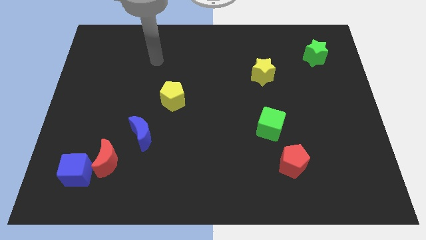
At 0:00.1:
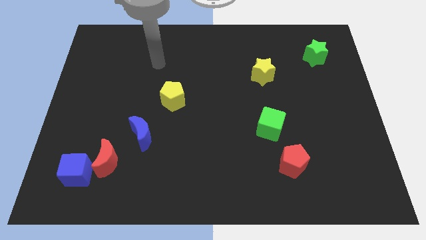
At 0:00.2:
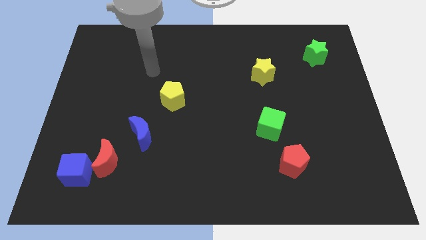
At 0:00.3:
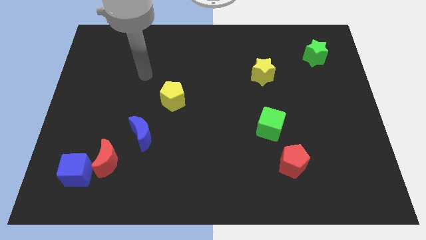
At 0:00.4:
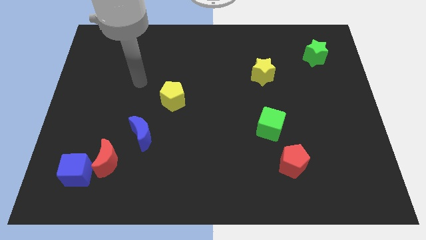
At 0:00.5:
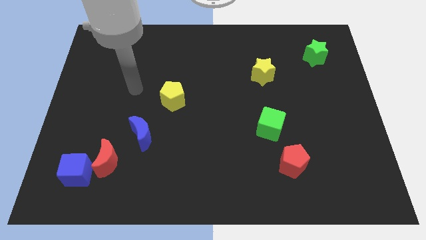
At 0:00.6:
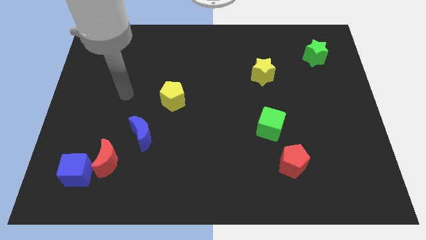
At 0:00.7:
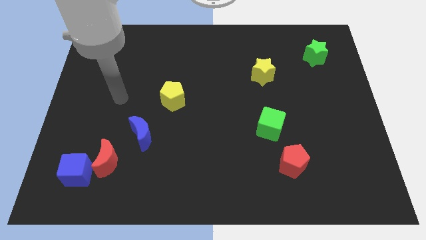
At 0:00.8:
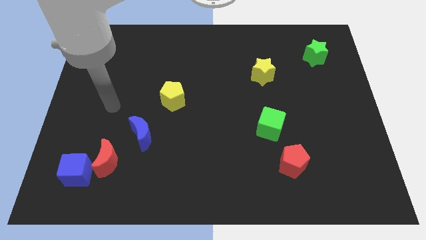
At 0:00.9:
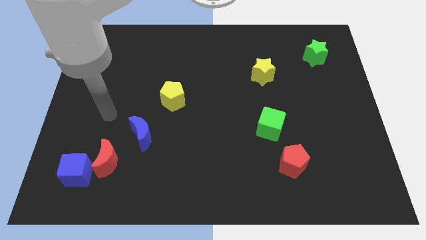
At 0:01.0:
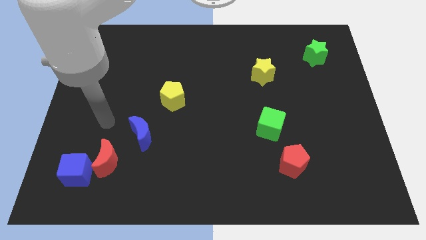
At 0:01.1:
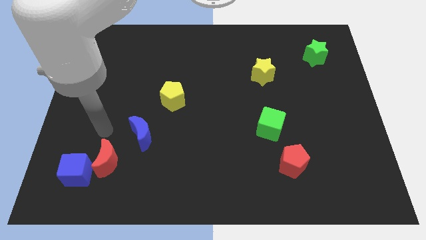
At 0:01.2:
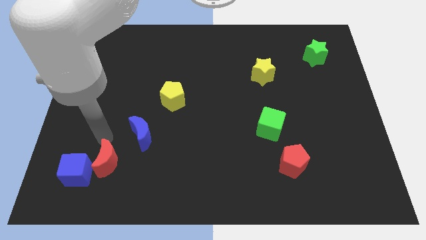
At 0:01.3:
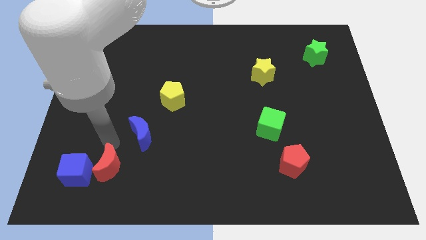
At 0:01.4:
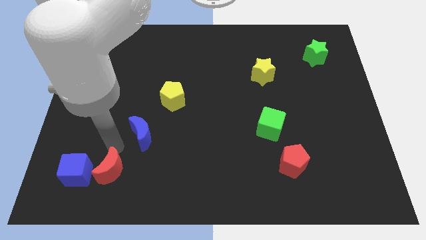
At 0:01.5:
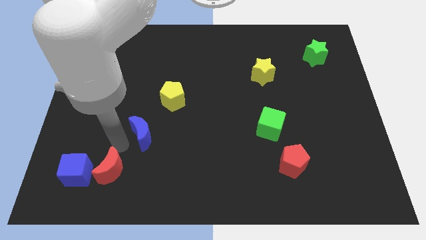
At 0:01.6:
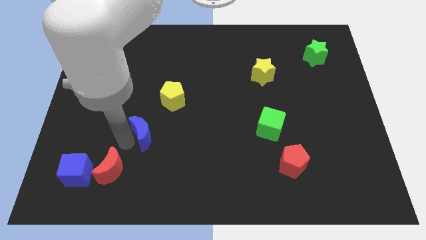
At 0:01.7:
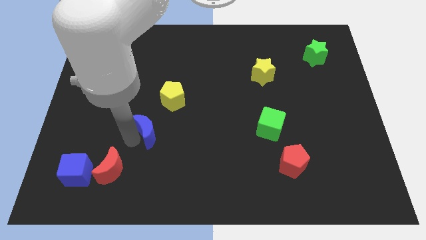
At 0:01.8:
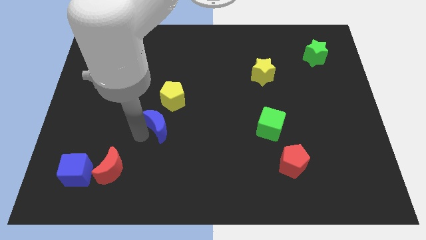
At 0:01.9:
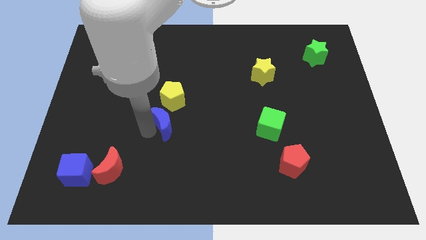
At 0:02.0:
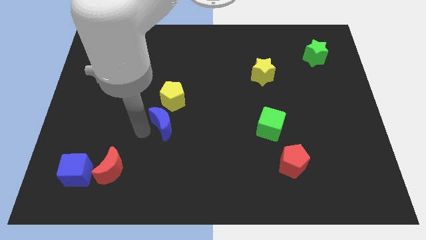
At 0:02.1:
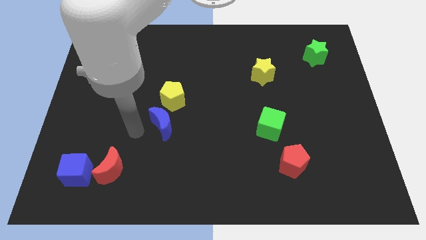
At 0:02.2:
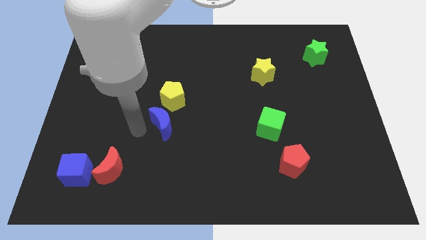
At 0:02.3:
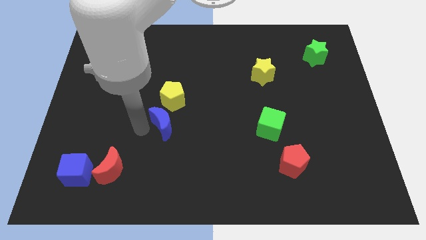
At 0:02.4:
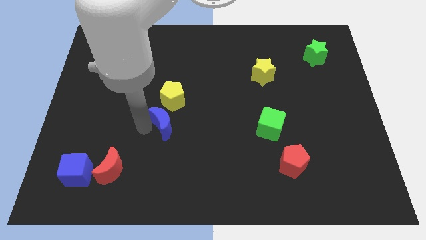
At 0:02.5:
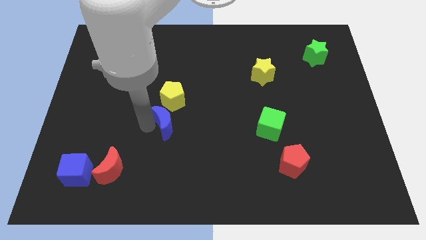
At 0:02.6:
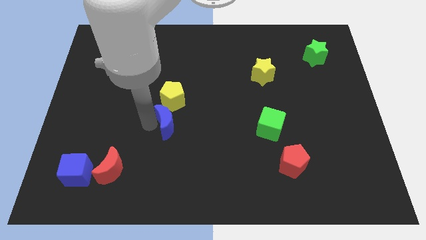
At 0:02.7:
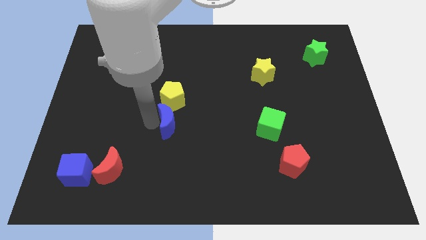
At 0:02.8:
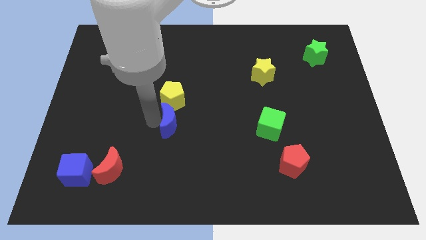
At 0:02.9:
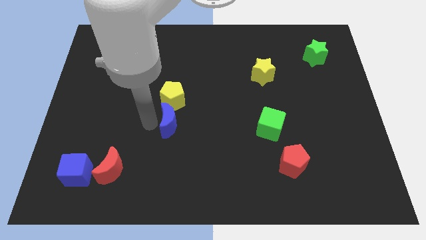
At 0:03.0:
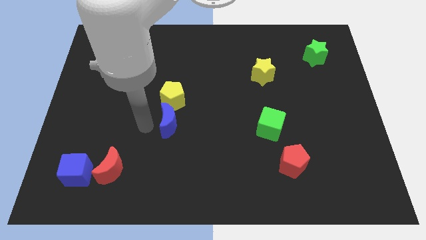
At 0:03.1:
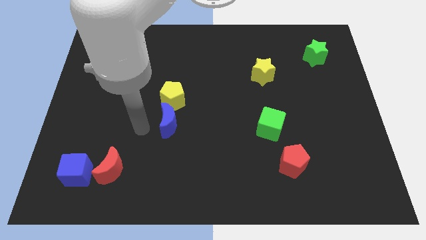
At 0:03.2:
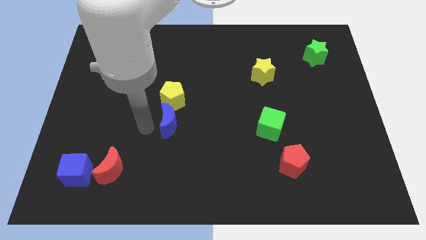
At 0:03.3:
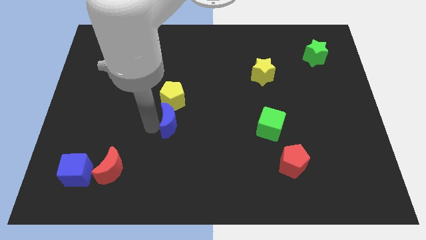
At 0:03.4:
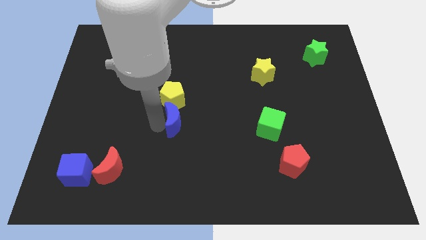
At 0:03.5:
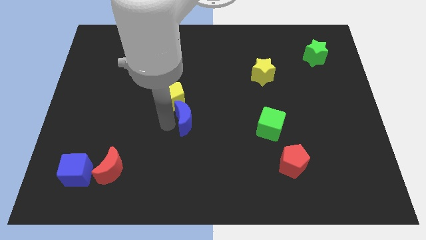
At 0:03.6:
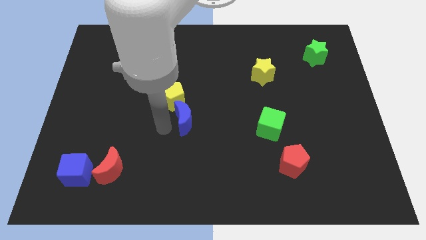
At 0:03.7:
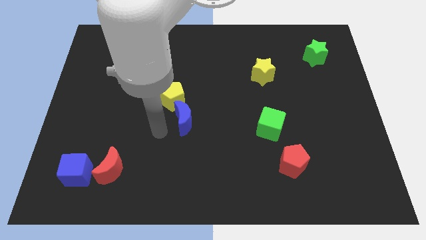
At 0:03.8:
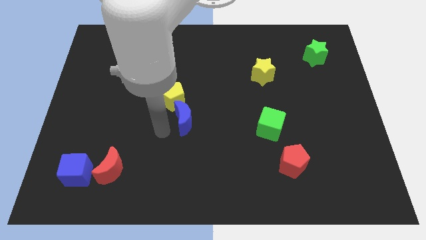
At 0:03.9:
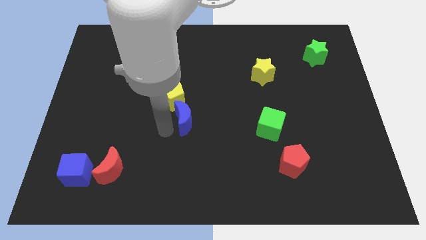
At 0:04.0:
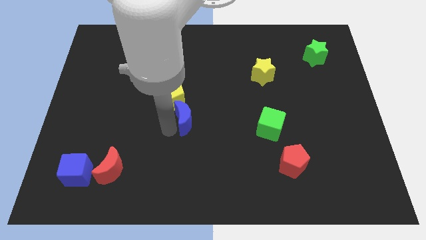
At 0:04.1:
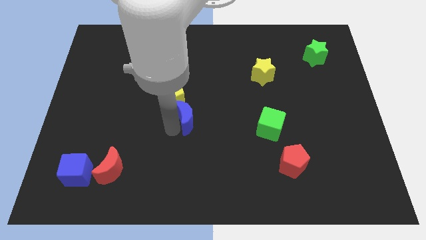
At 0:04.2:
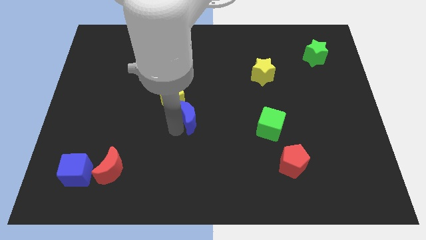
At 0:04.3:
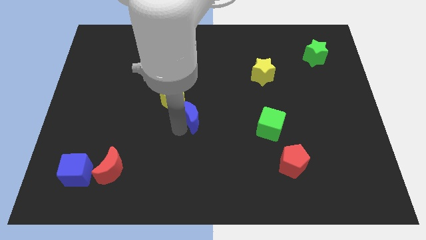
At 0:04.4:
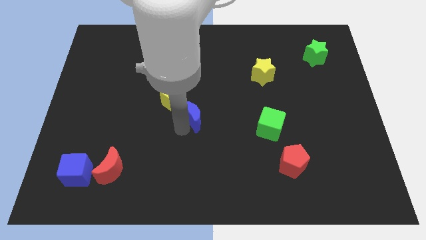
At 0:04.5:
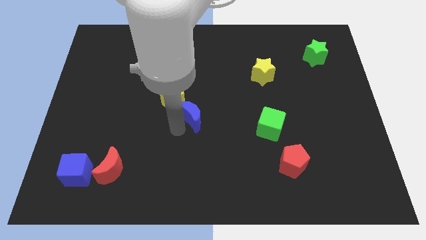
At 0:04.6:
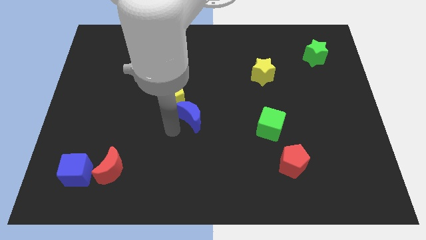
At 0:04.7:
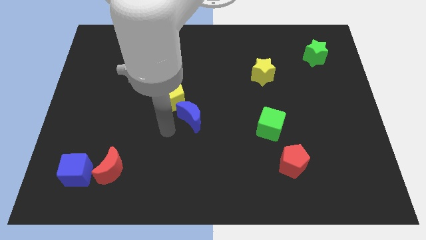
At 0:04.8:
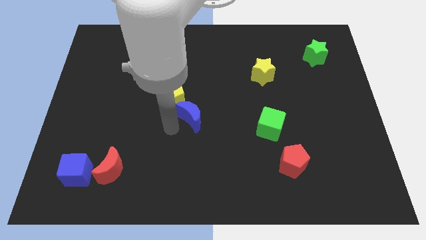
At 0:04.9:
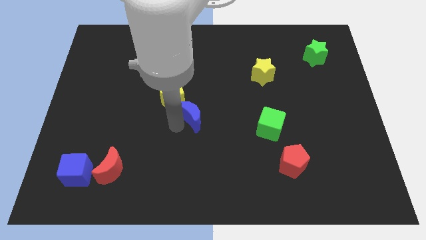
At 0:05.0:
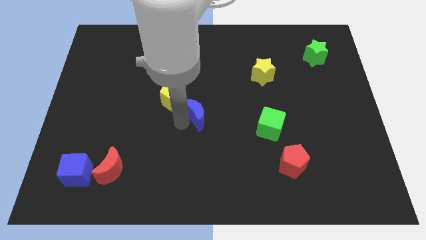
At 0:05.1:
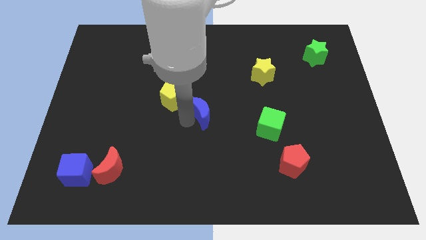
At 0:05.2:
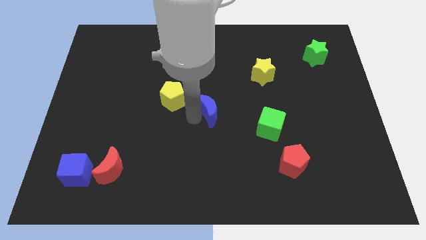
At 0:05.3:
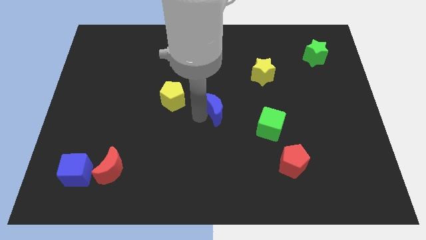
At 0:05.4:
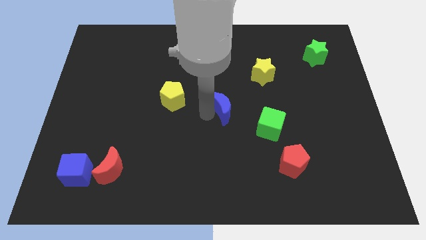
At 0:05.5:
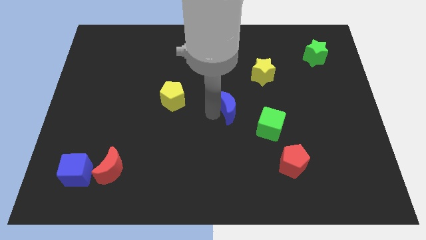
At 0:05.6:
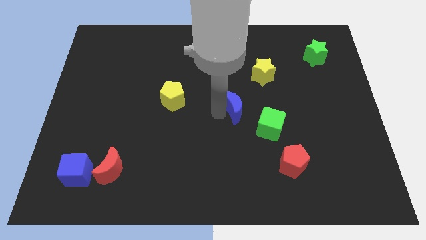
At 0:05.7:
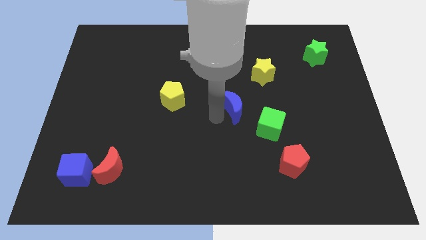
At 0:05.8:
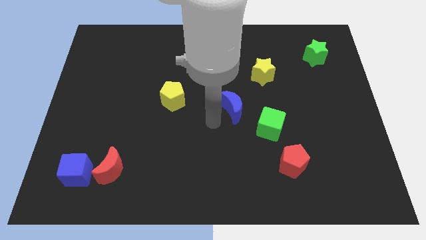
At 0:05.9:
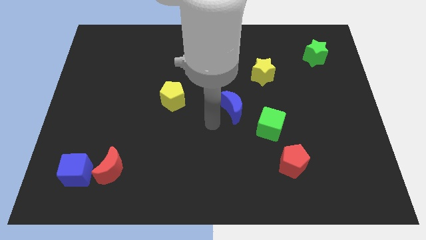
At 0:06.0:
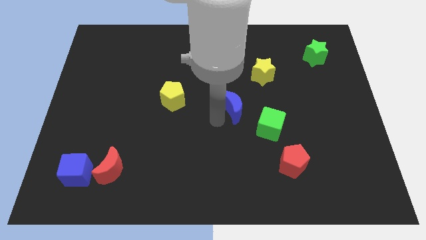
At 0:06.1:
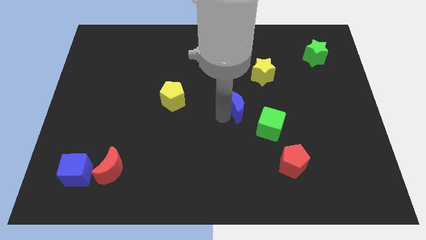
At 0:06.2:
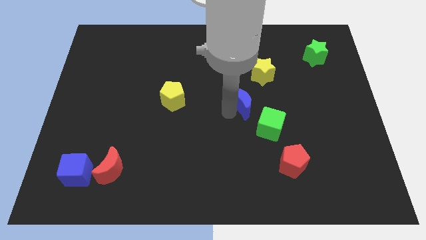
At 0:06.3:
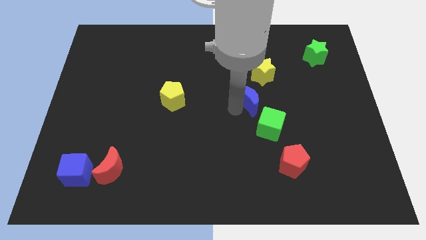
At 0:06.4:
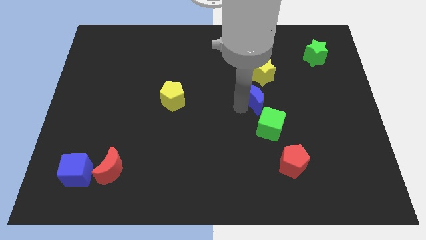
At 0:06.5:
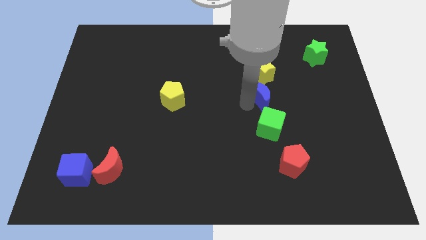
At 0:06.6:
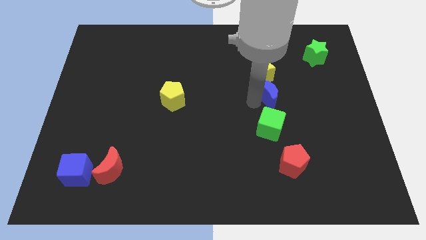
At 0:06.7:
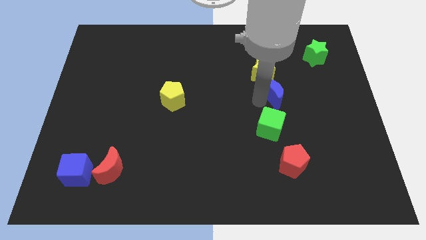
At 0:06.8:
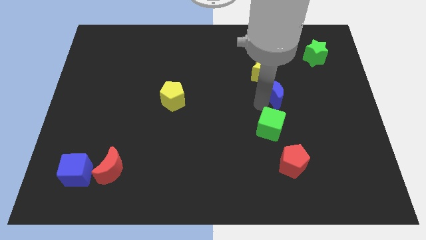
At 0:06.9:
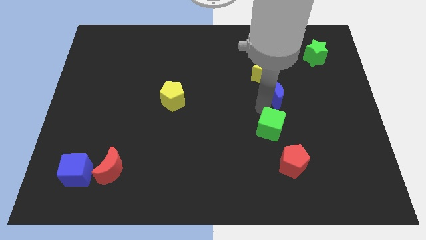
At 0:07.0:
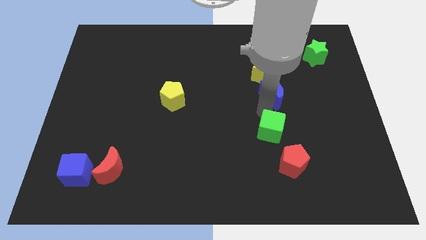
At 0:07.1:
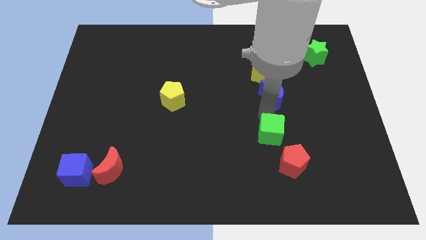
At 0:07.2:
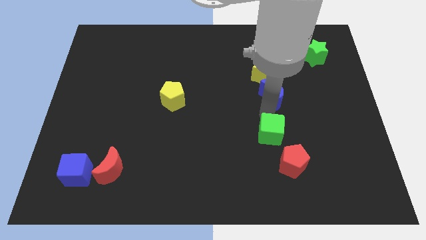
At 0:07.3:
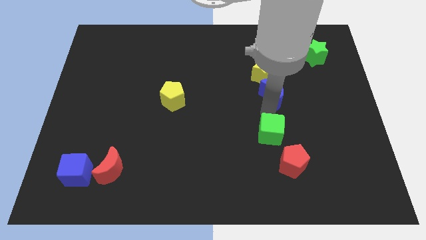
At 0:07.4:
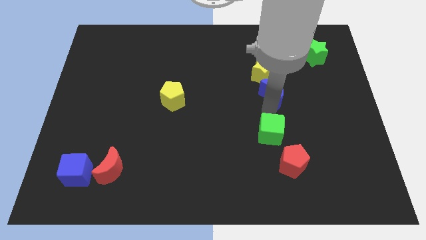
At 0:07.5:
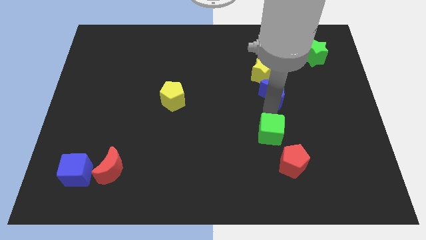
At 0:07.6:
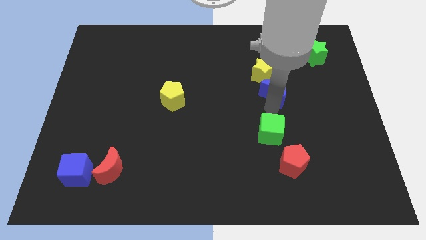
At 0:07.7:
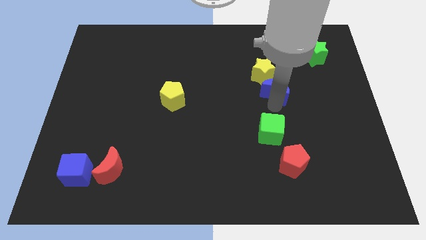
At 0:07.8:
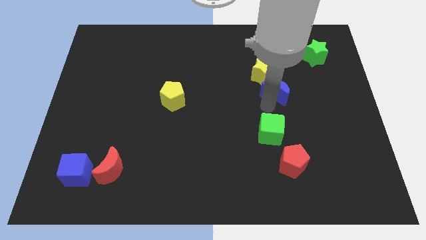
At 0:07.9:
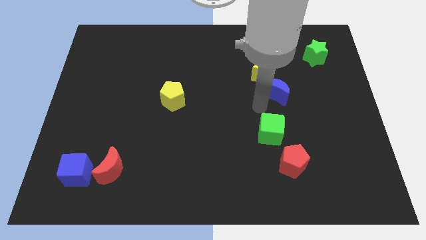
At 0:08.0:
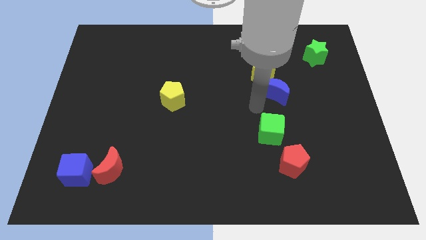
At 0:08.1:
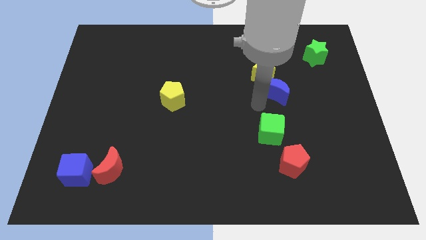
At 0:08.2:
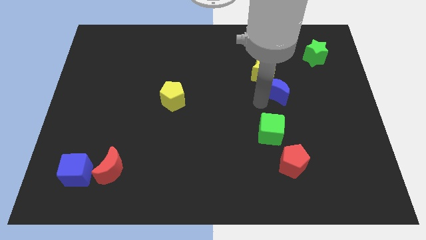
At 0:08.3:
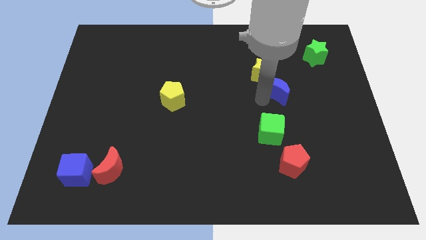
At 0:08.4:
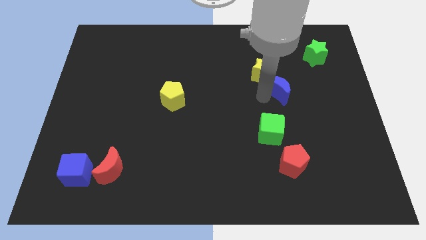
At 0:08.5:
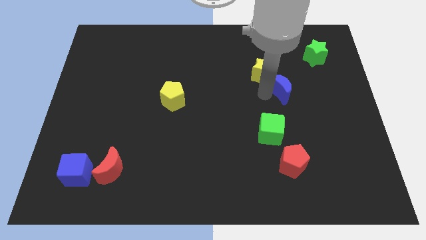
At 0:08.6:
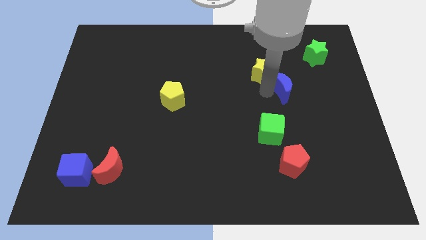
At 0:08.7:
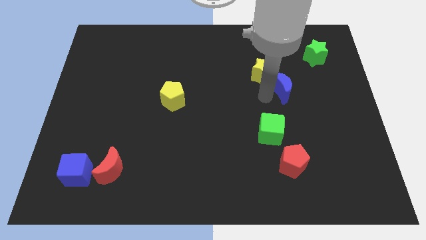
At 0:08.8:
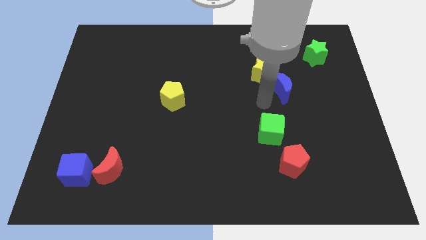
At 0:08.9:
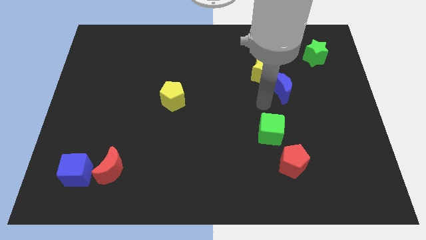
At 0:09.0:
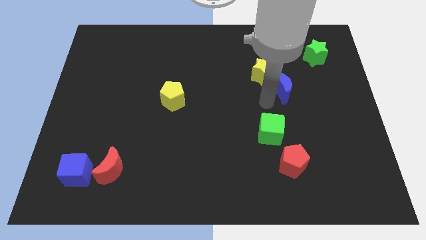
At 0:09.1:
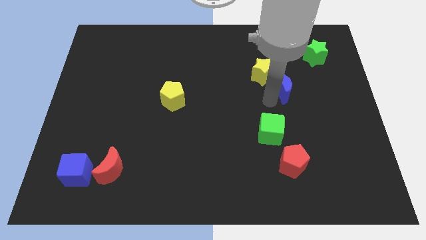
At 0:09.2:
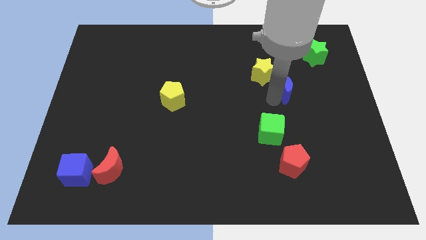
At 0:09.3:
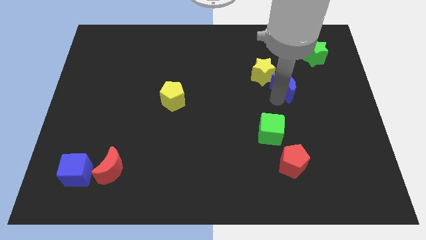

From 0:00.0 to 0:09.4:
move the blue moon just right of the yellow star
